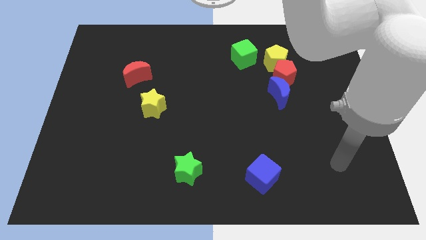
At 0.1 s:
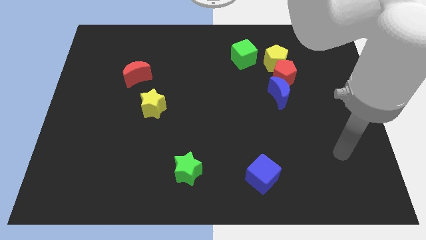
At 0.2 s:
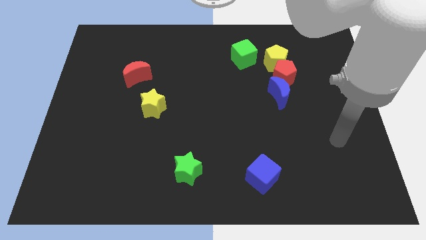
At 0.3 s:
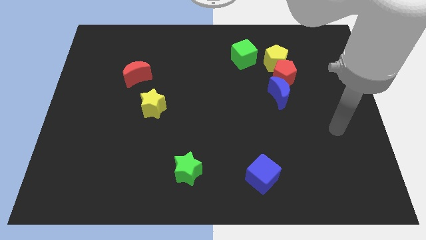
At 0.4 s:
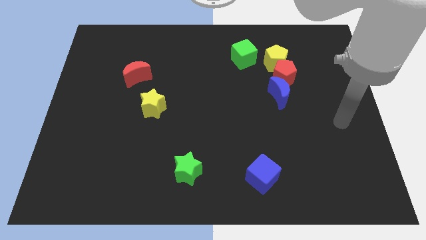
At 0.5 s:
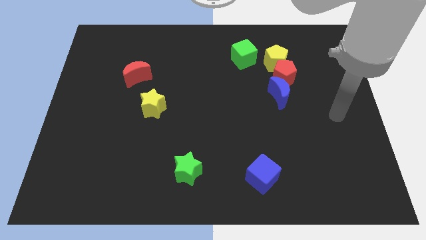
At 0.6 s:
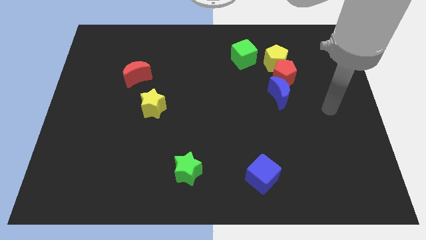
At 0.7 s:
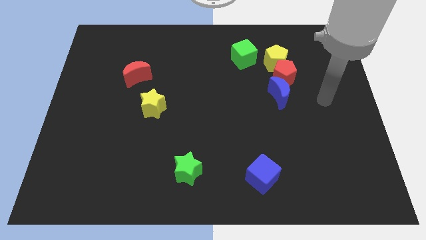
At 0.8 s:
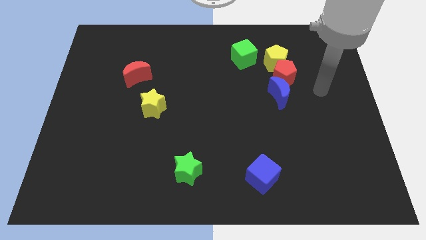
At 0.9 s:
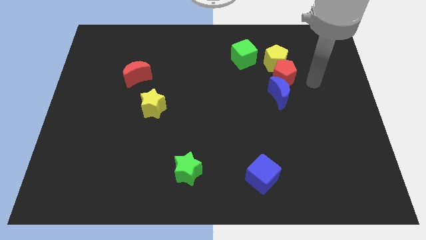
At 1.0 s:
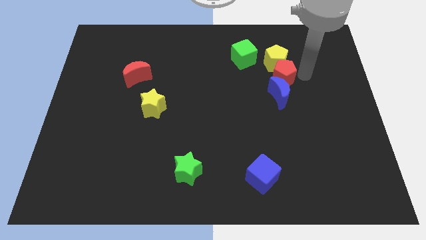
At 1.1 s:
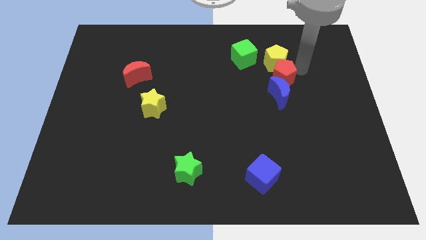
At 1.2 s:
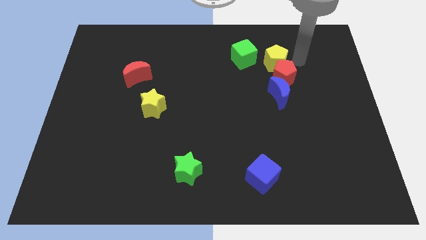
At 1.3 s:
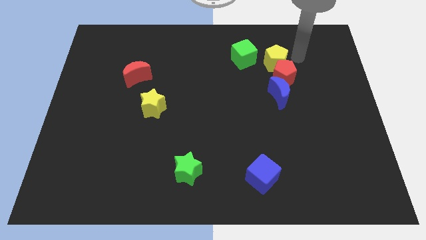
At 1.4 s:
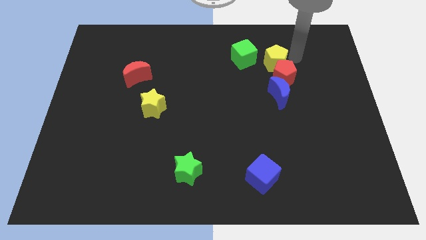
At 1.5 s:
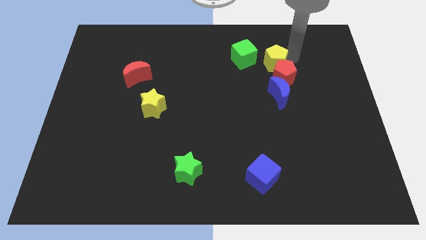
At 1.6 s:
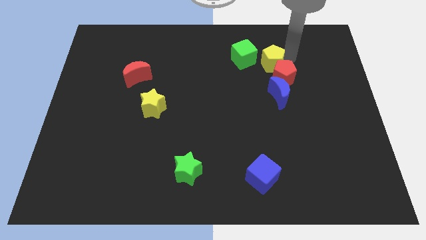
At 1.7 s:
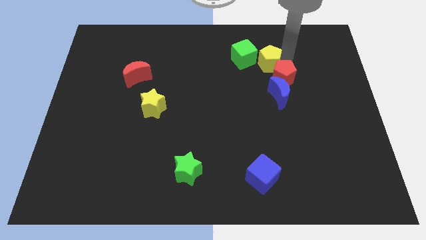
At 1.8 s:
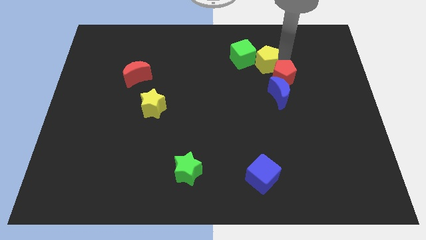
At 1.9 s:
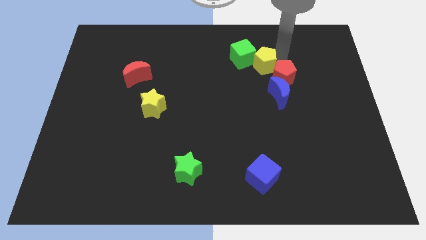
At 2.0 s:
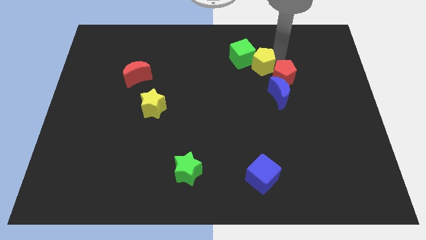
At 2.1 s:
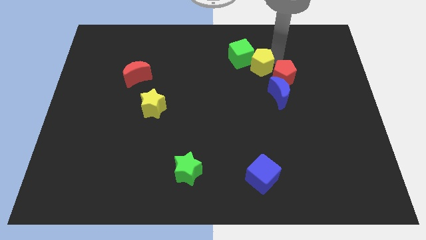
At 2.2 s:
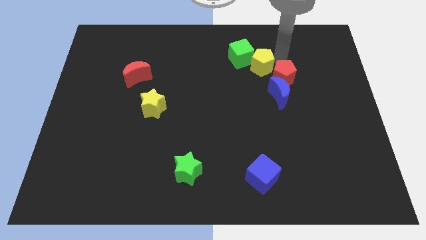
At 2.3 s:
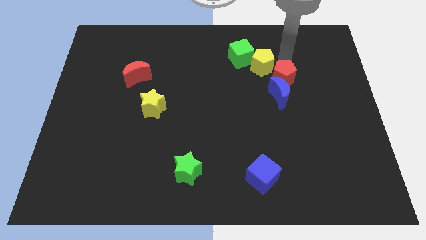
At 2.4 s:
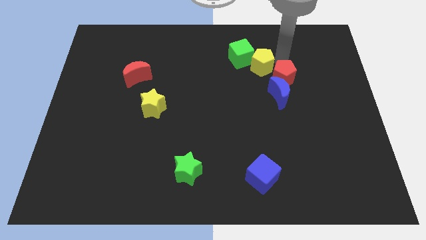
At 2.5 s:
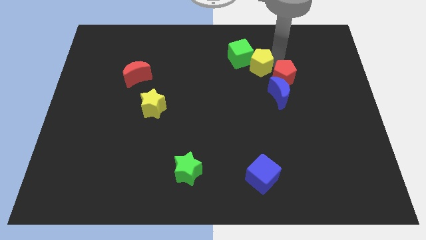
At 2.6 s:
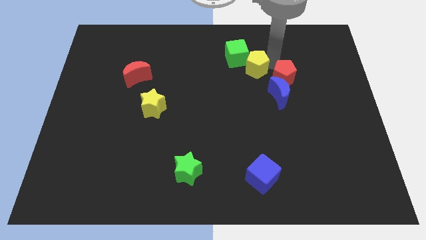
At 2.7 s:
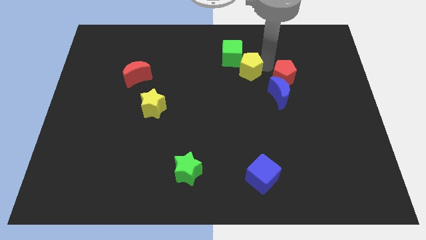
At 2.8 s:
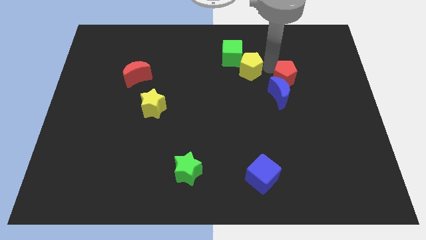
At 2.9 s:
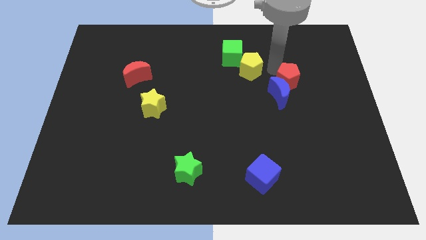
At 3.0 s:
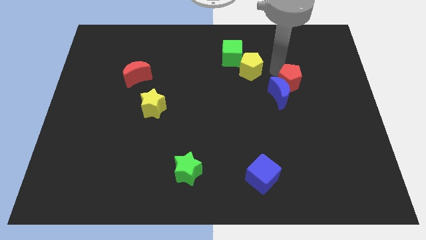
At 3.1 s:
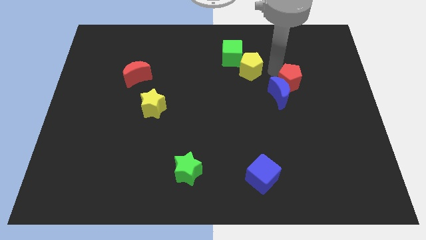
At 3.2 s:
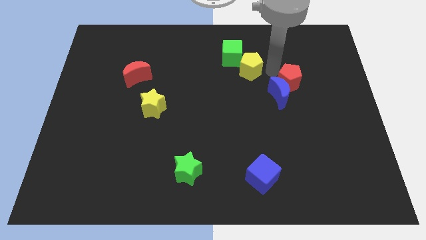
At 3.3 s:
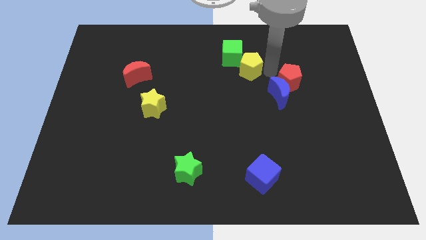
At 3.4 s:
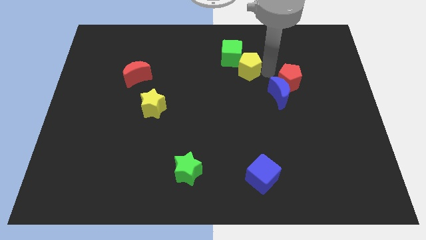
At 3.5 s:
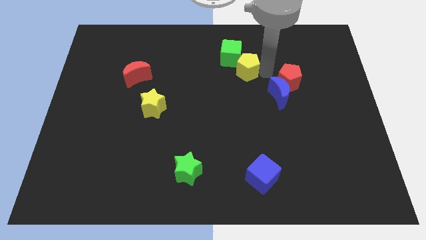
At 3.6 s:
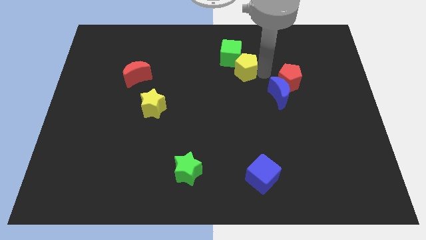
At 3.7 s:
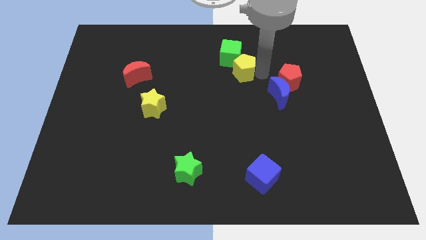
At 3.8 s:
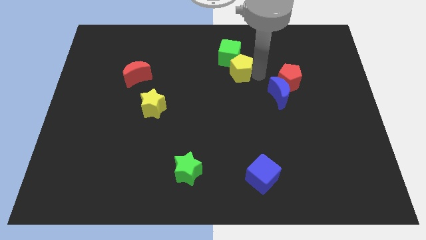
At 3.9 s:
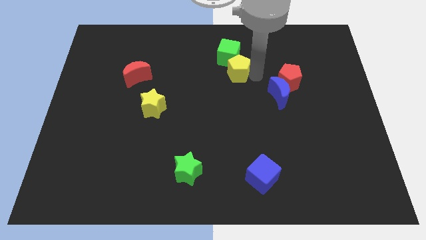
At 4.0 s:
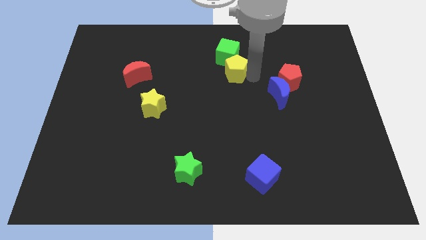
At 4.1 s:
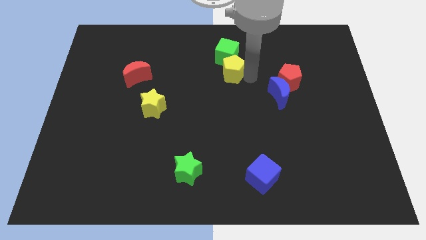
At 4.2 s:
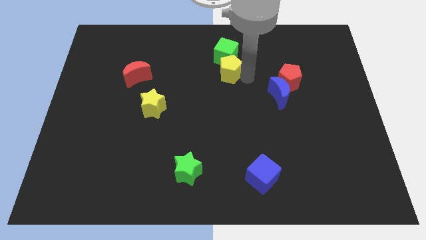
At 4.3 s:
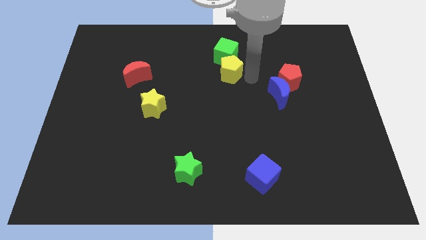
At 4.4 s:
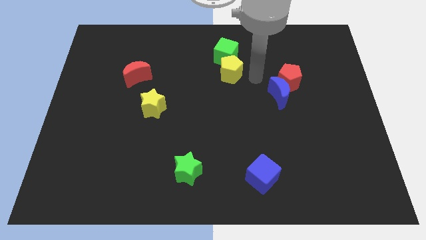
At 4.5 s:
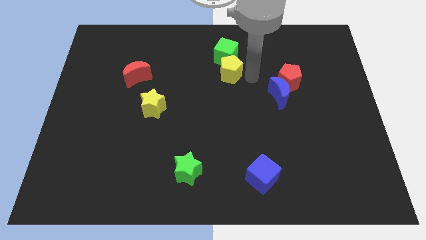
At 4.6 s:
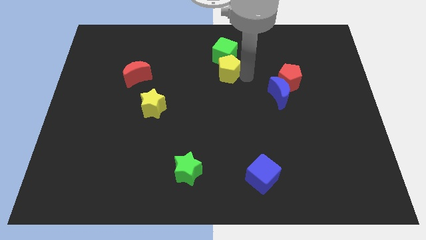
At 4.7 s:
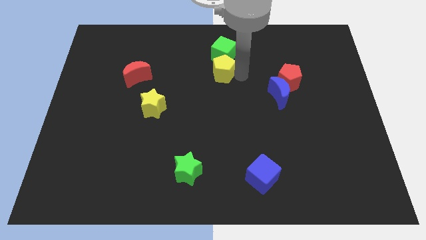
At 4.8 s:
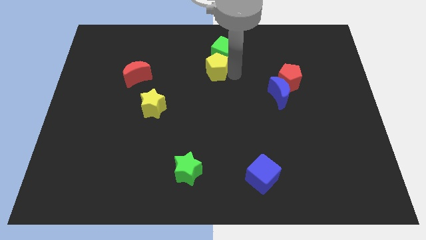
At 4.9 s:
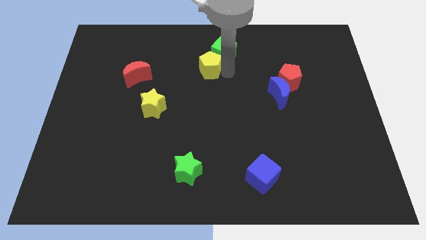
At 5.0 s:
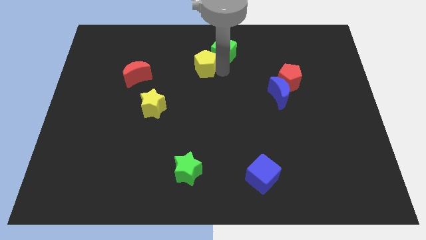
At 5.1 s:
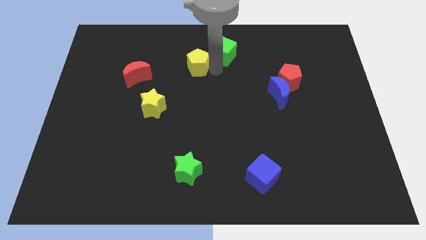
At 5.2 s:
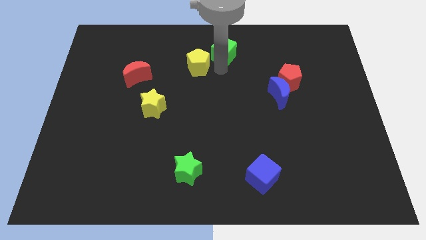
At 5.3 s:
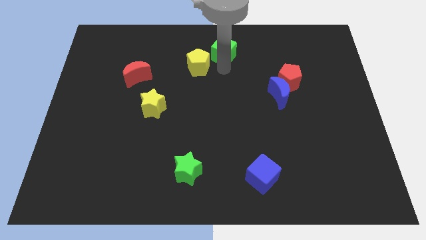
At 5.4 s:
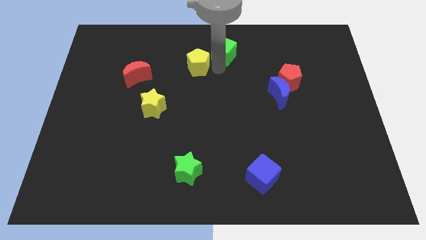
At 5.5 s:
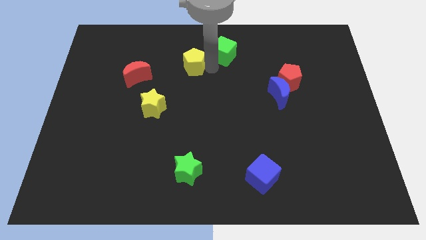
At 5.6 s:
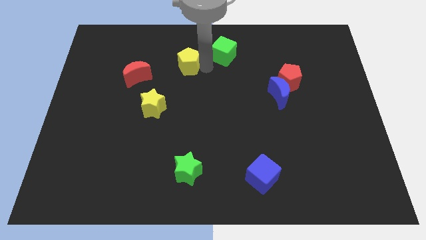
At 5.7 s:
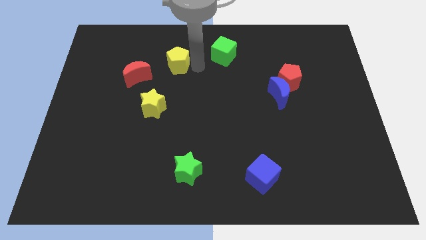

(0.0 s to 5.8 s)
push the yellow pentagon to the top right side of the red moon

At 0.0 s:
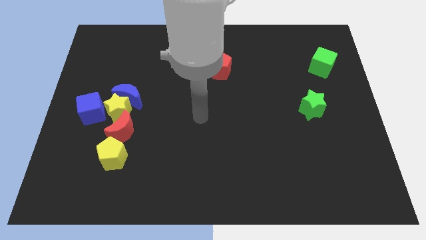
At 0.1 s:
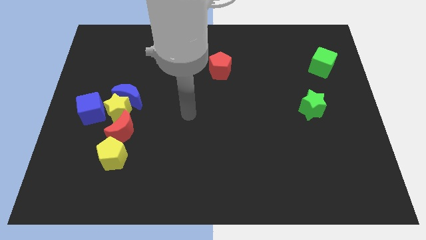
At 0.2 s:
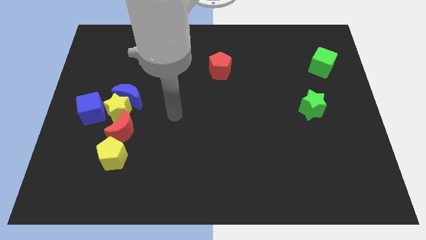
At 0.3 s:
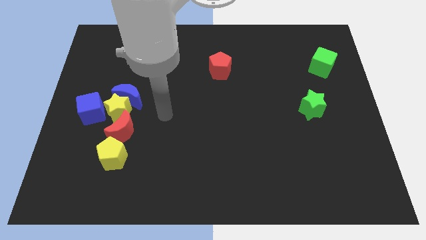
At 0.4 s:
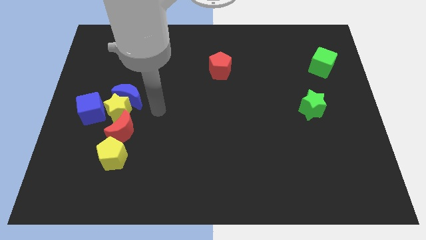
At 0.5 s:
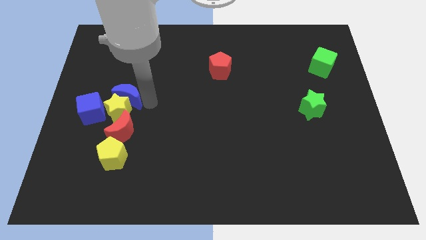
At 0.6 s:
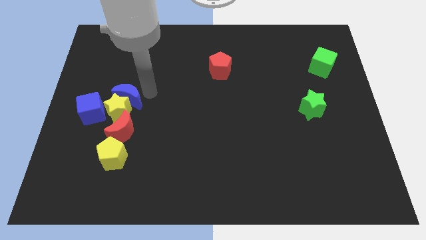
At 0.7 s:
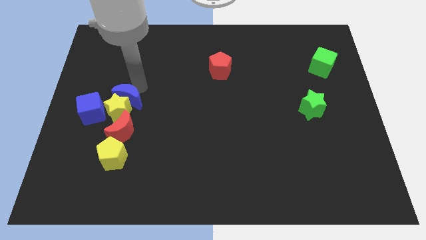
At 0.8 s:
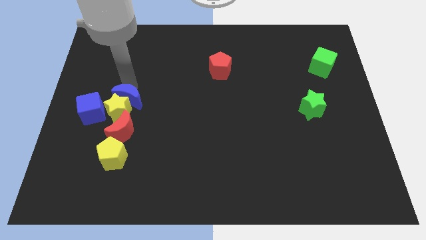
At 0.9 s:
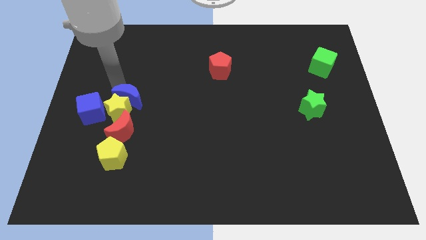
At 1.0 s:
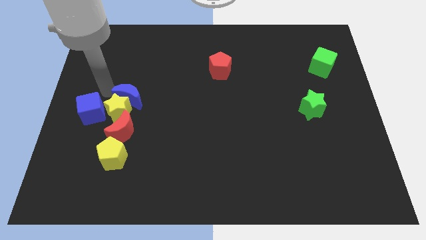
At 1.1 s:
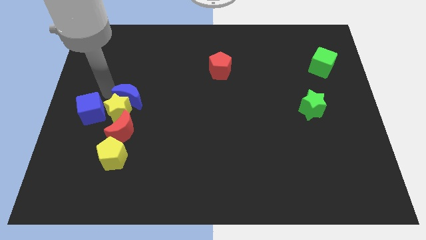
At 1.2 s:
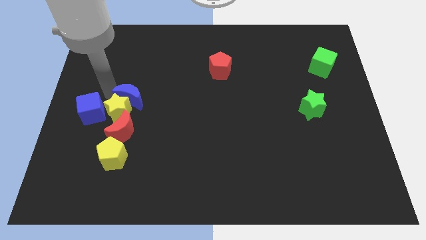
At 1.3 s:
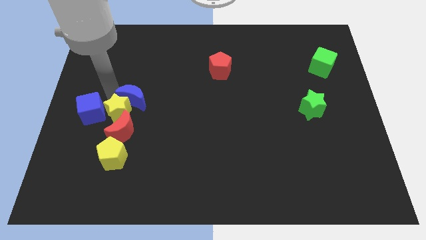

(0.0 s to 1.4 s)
move the blue moon to the right side of the yellow star
